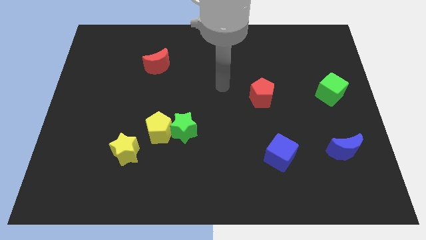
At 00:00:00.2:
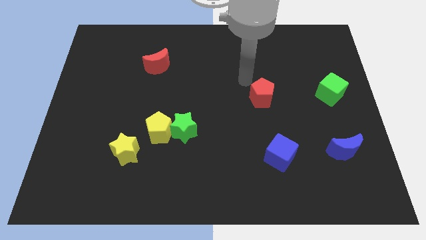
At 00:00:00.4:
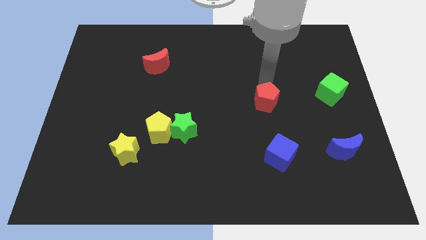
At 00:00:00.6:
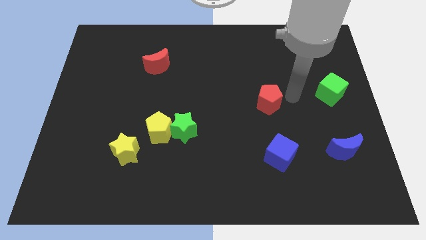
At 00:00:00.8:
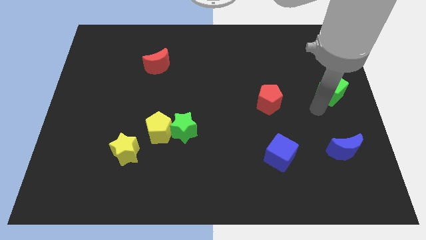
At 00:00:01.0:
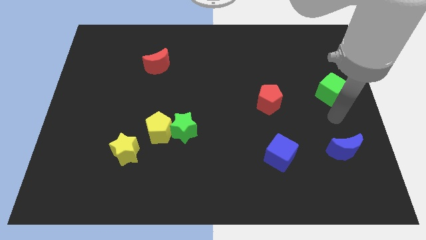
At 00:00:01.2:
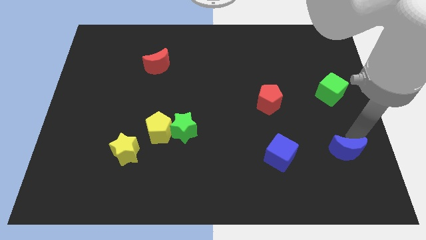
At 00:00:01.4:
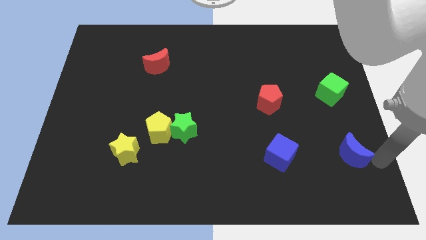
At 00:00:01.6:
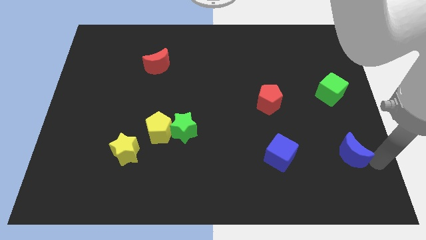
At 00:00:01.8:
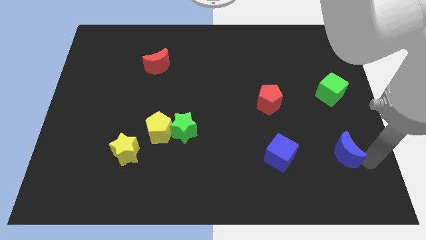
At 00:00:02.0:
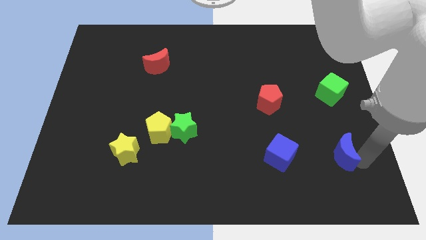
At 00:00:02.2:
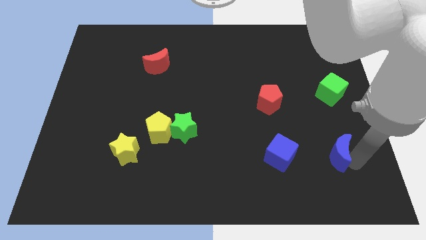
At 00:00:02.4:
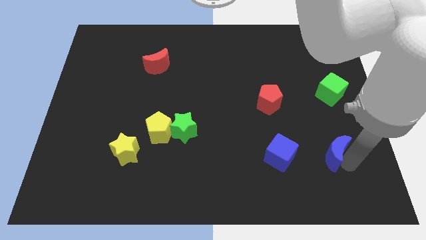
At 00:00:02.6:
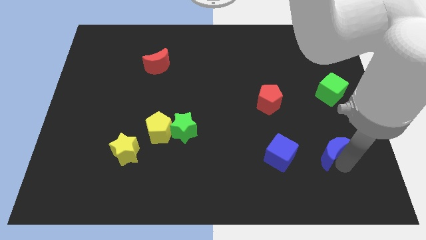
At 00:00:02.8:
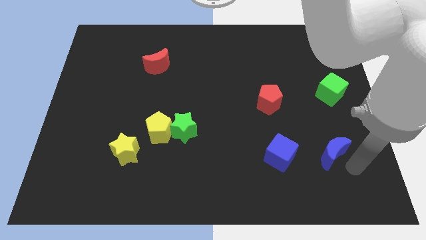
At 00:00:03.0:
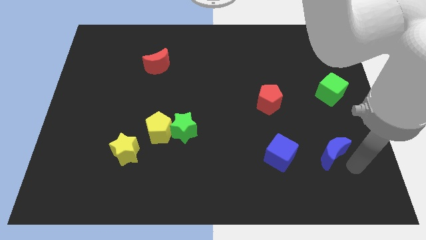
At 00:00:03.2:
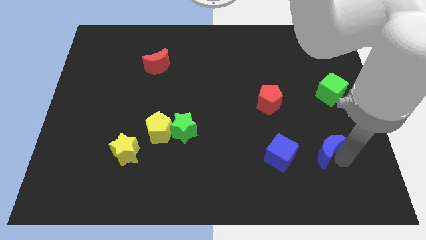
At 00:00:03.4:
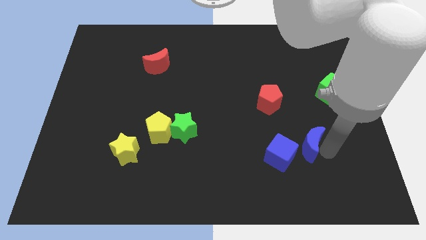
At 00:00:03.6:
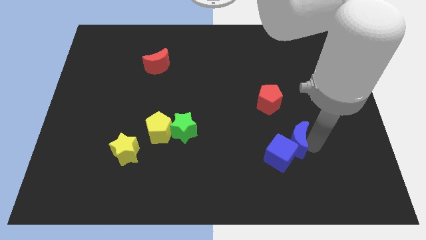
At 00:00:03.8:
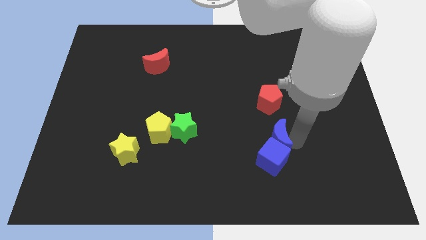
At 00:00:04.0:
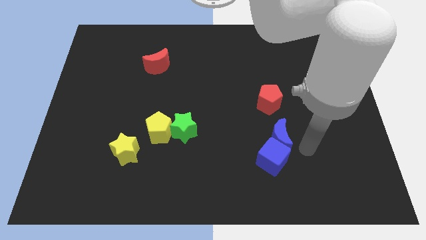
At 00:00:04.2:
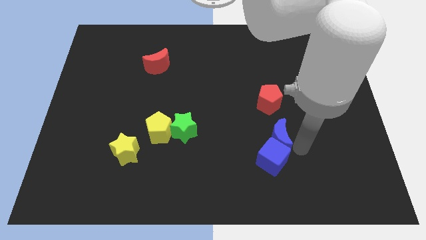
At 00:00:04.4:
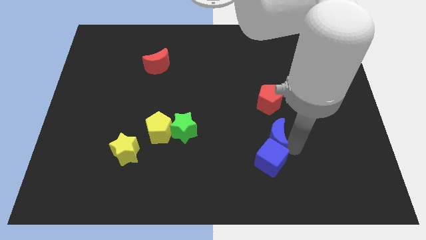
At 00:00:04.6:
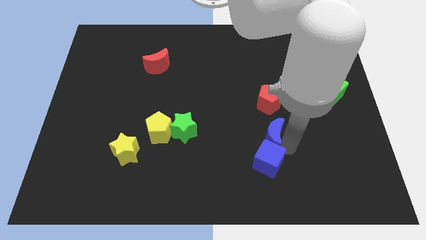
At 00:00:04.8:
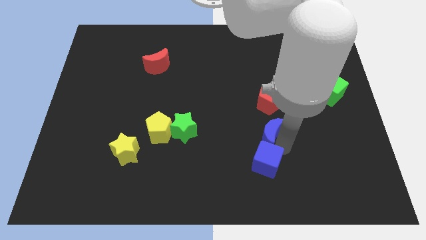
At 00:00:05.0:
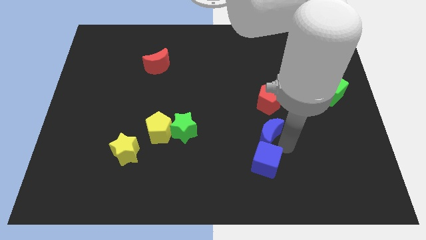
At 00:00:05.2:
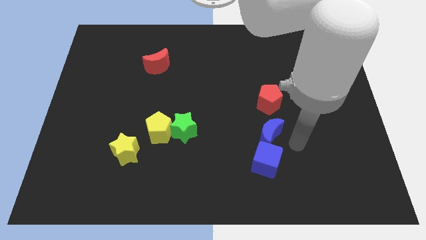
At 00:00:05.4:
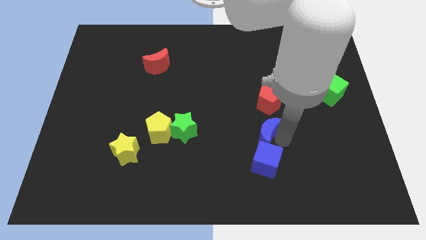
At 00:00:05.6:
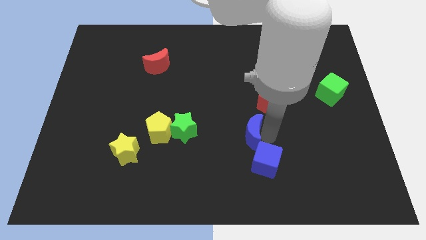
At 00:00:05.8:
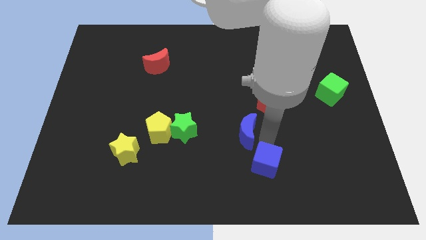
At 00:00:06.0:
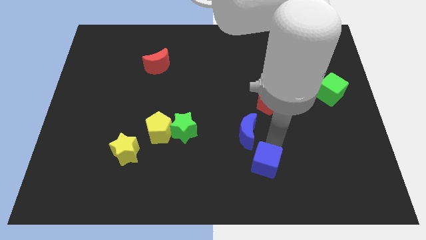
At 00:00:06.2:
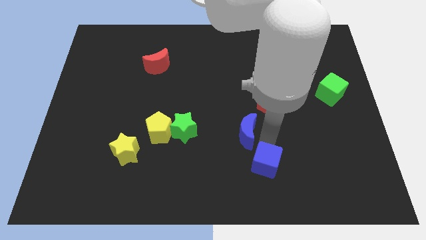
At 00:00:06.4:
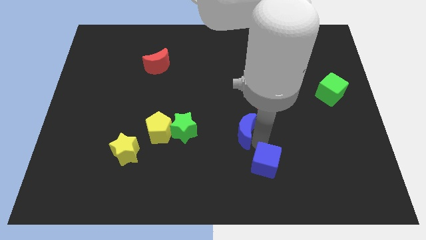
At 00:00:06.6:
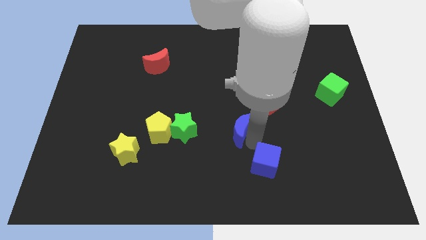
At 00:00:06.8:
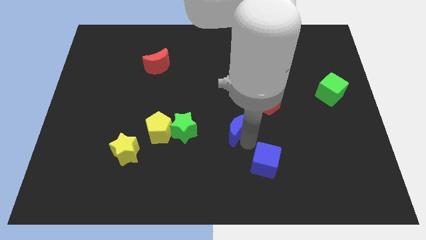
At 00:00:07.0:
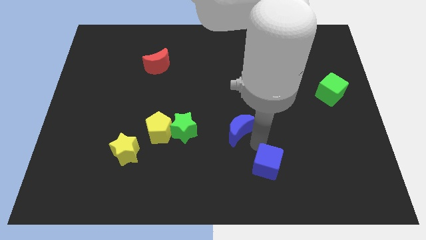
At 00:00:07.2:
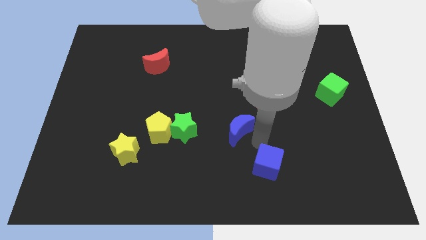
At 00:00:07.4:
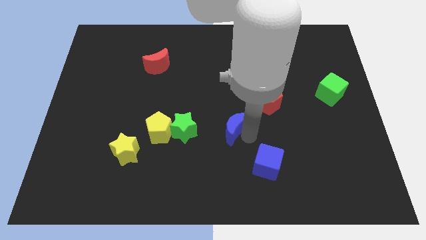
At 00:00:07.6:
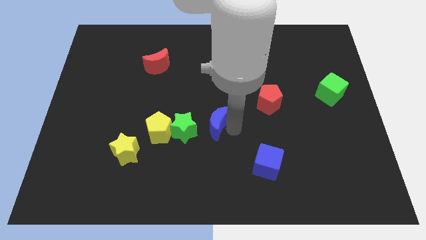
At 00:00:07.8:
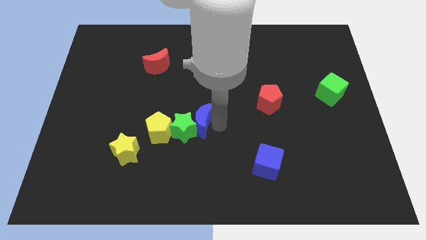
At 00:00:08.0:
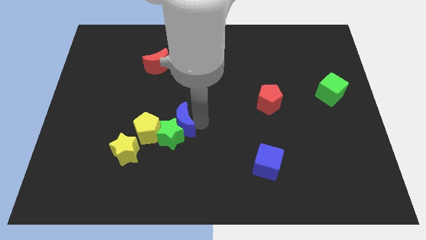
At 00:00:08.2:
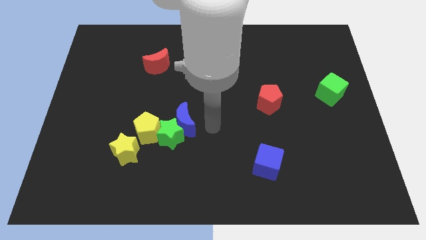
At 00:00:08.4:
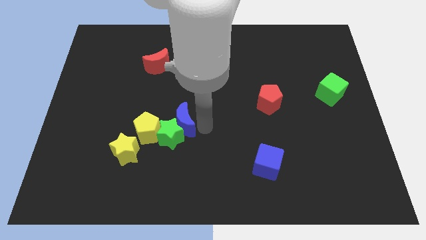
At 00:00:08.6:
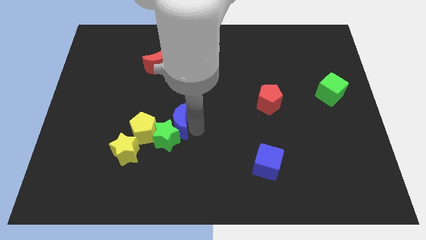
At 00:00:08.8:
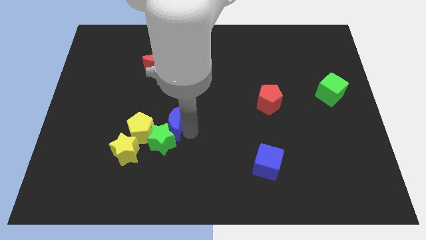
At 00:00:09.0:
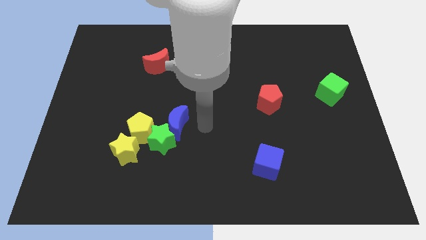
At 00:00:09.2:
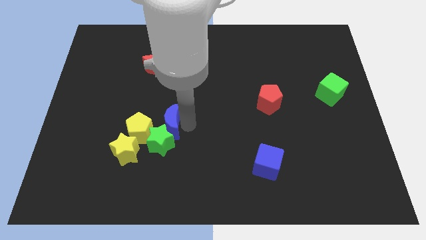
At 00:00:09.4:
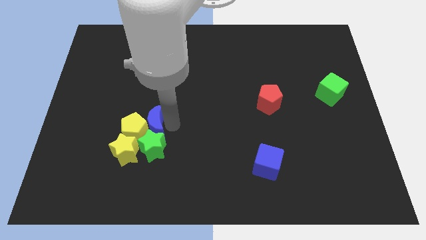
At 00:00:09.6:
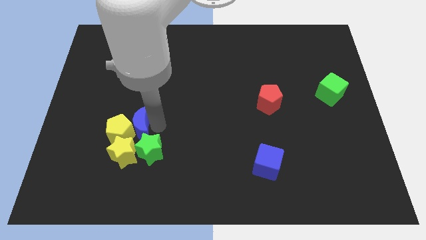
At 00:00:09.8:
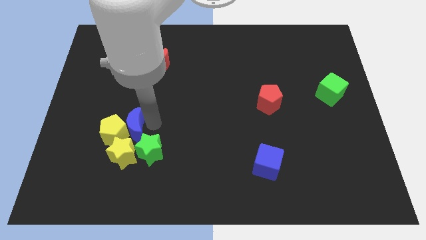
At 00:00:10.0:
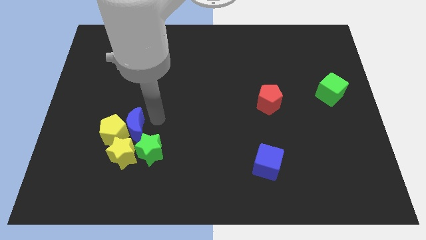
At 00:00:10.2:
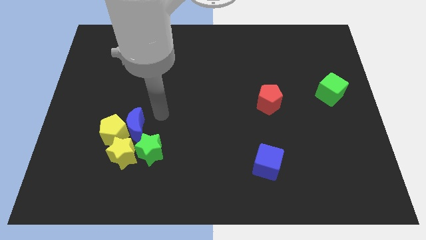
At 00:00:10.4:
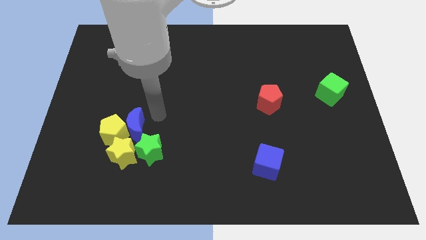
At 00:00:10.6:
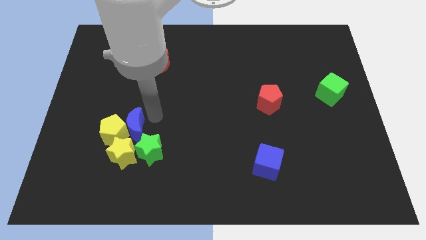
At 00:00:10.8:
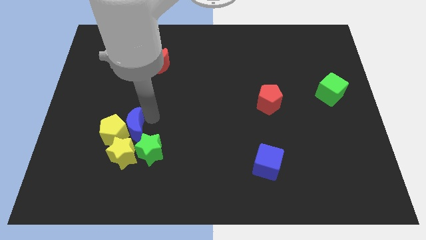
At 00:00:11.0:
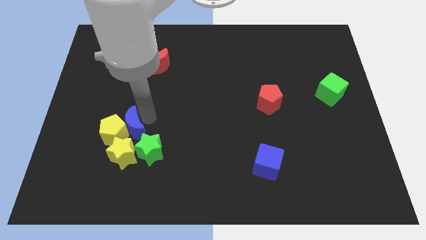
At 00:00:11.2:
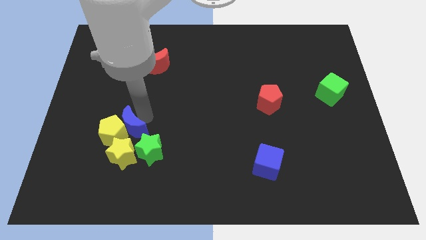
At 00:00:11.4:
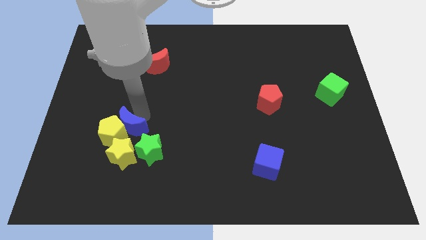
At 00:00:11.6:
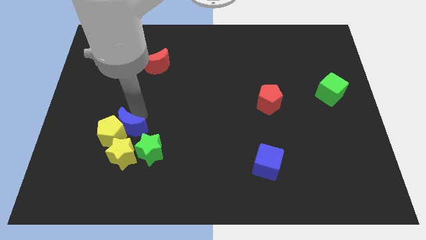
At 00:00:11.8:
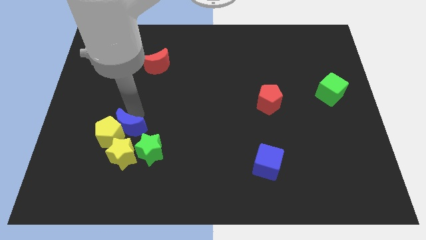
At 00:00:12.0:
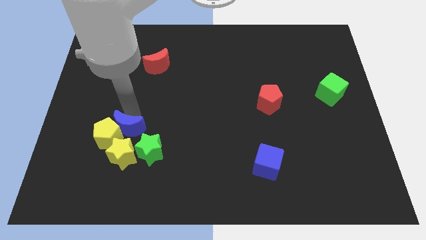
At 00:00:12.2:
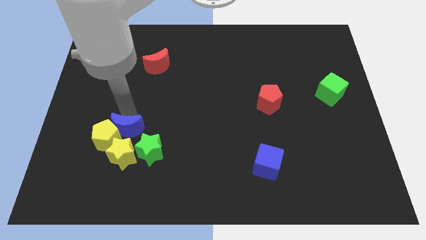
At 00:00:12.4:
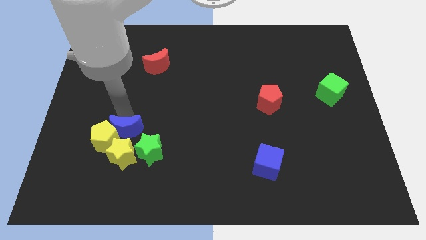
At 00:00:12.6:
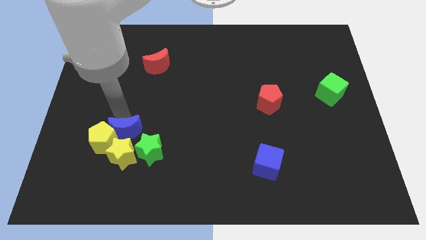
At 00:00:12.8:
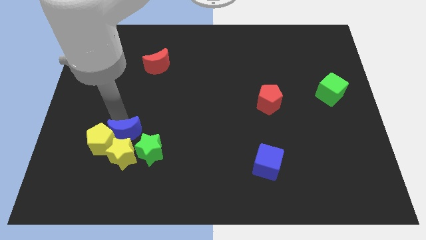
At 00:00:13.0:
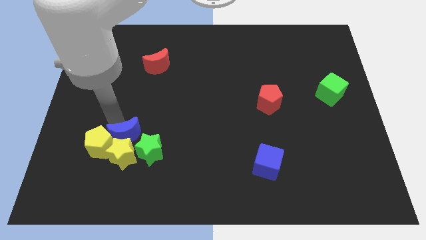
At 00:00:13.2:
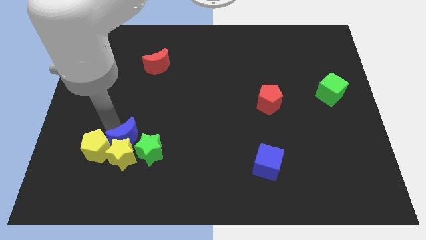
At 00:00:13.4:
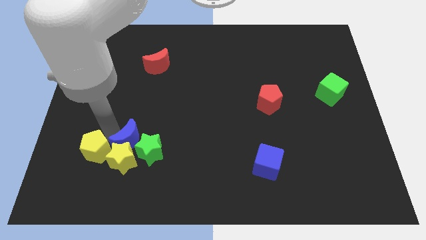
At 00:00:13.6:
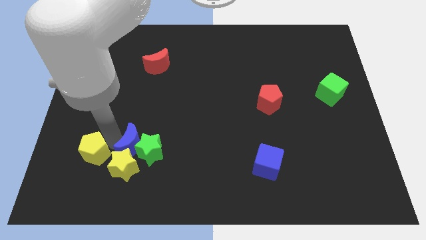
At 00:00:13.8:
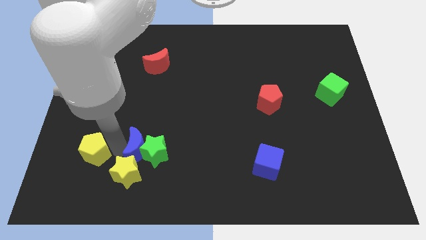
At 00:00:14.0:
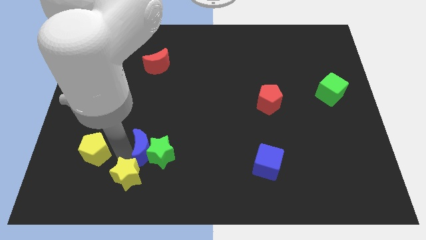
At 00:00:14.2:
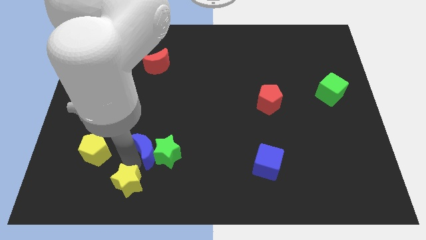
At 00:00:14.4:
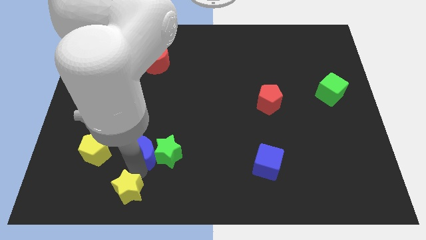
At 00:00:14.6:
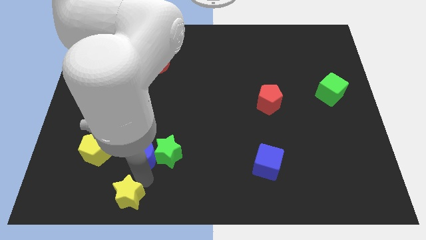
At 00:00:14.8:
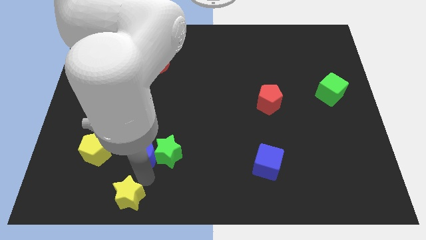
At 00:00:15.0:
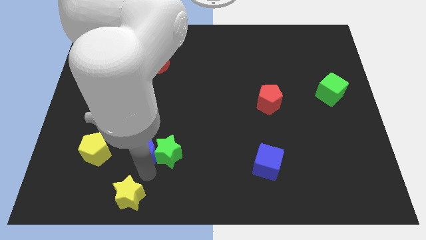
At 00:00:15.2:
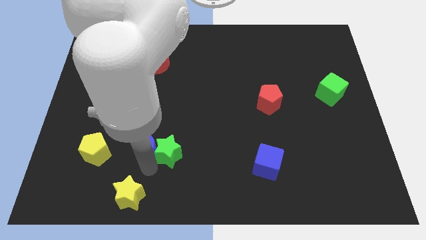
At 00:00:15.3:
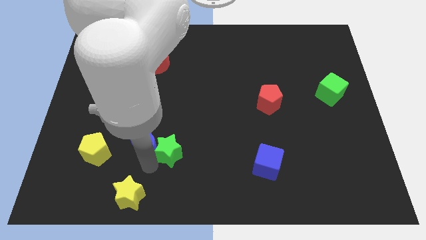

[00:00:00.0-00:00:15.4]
put the blue moon to the top left side of the green star

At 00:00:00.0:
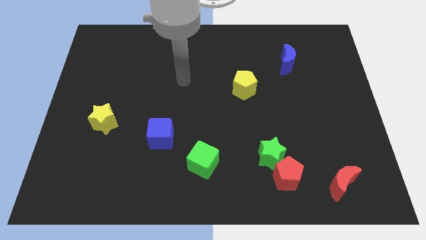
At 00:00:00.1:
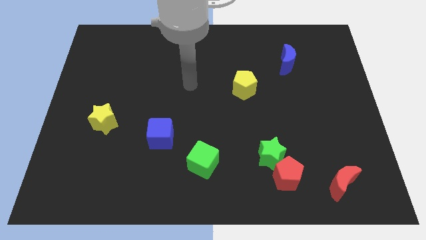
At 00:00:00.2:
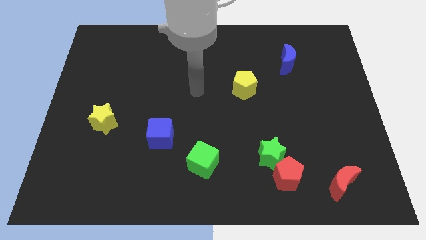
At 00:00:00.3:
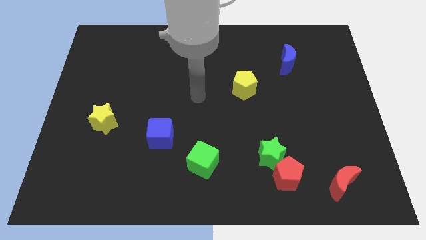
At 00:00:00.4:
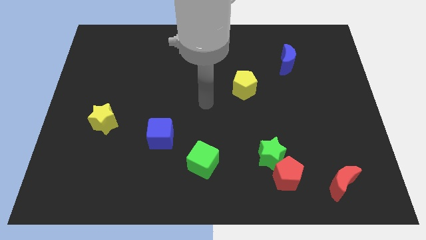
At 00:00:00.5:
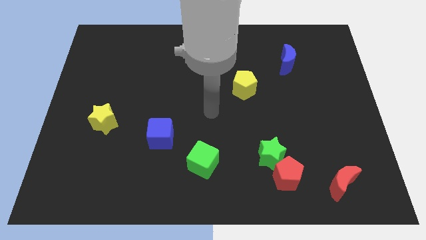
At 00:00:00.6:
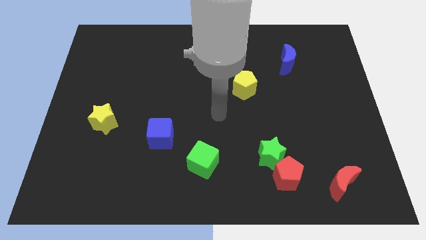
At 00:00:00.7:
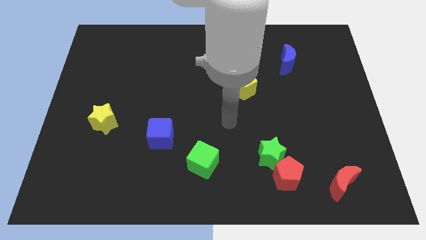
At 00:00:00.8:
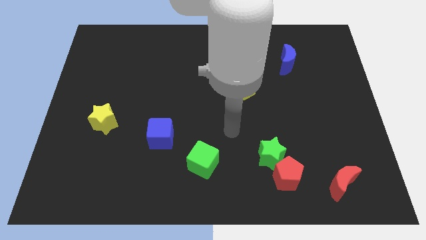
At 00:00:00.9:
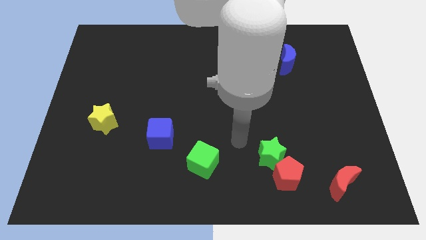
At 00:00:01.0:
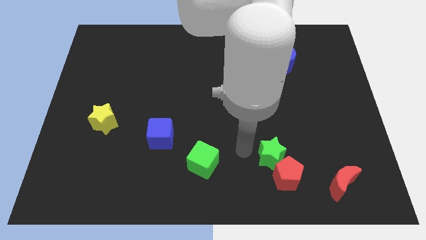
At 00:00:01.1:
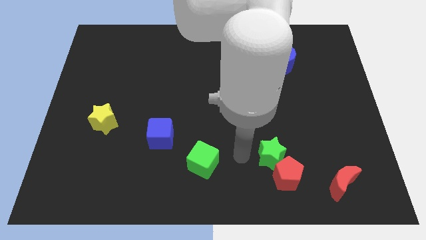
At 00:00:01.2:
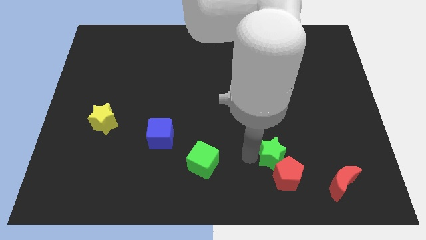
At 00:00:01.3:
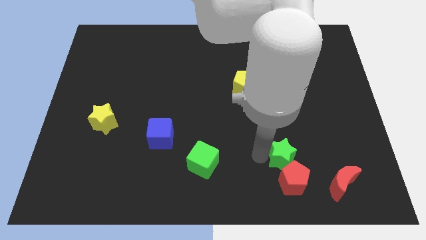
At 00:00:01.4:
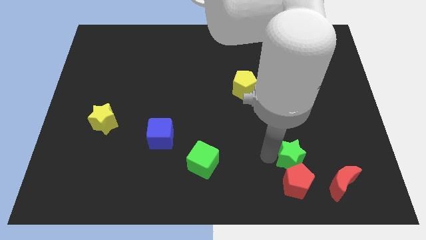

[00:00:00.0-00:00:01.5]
move the green star to the top right side of the red pentagon
